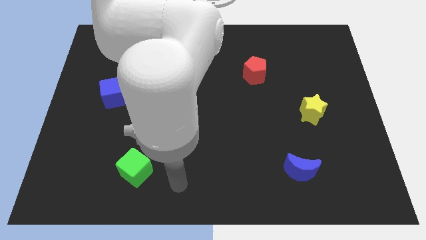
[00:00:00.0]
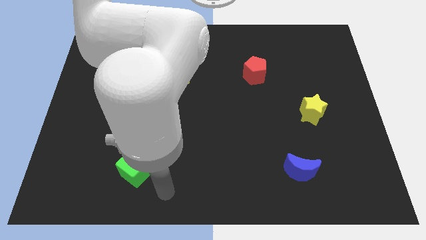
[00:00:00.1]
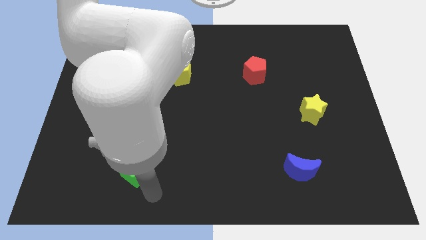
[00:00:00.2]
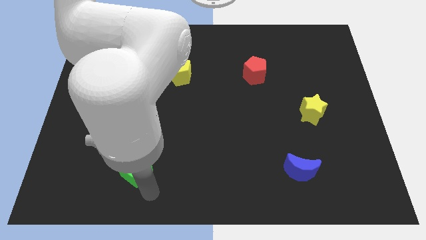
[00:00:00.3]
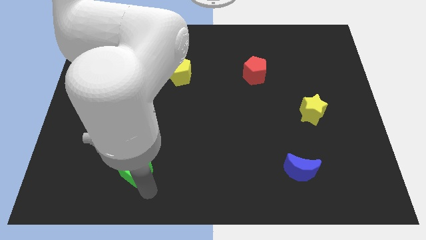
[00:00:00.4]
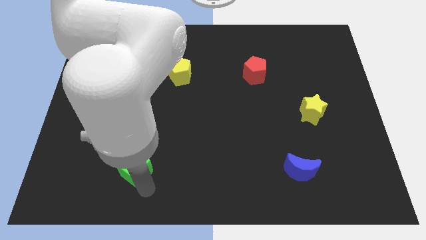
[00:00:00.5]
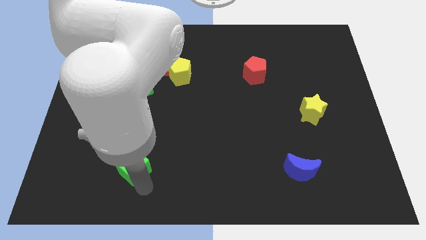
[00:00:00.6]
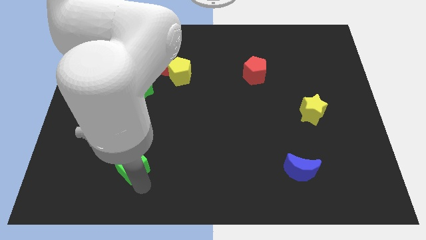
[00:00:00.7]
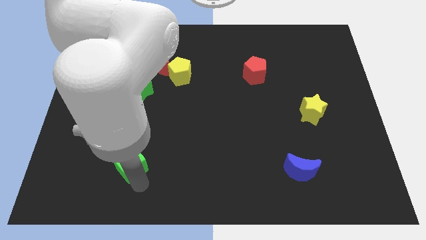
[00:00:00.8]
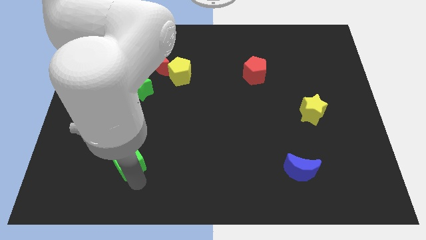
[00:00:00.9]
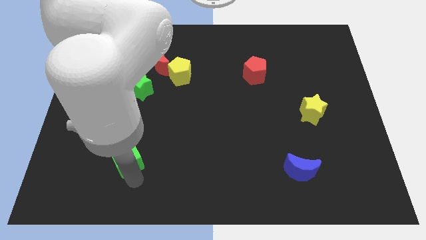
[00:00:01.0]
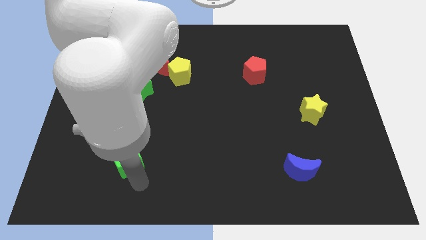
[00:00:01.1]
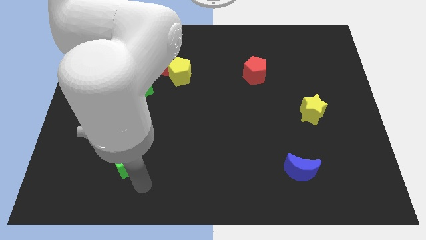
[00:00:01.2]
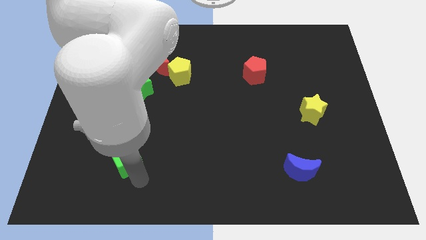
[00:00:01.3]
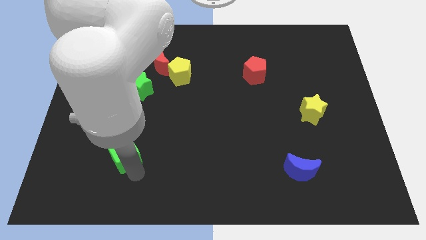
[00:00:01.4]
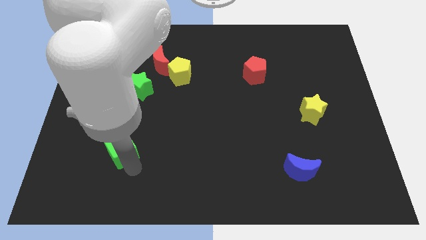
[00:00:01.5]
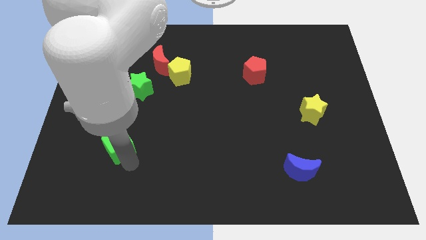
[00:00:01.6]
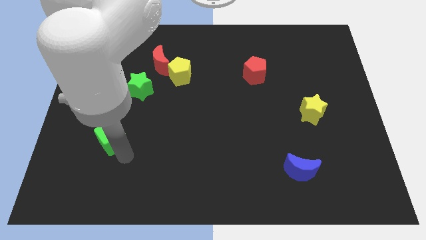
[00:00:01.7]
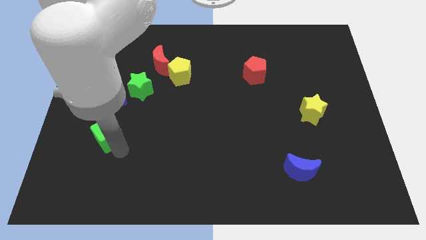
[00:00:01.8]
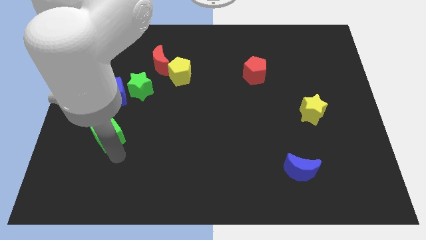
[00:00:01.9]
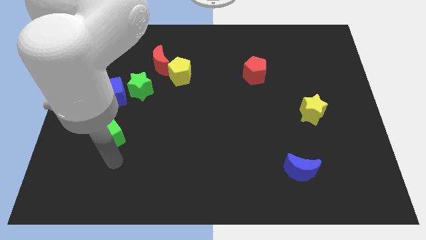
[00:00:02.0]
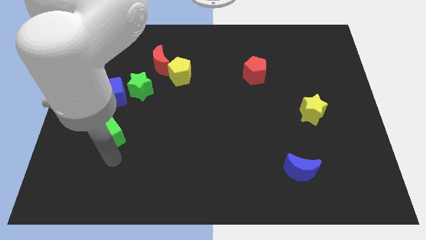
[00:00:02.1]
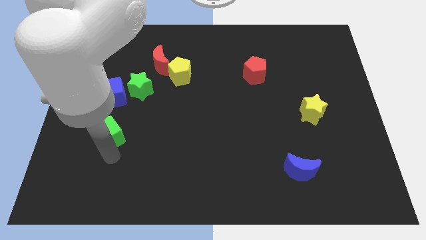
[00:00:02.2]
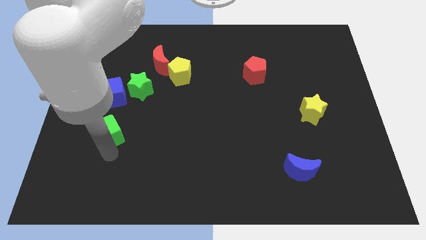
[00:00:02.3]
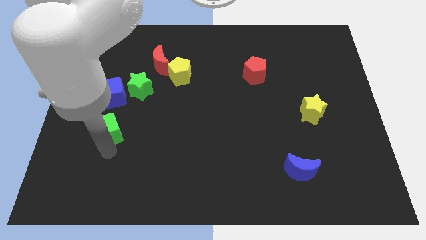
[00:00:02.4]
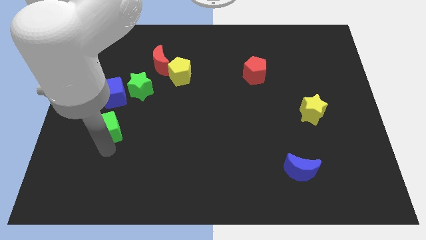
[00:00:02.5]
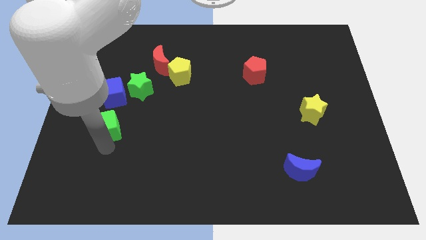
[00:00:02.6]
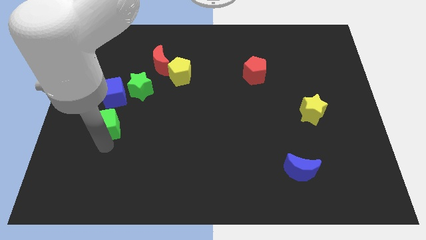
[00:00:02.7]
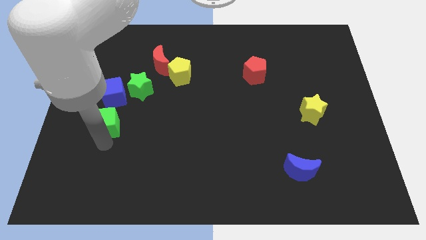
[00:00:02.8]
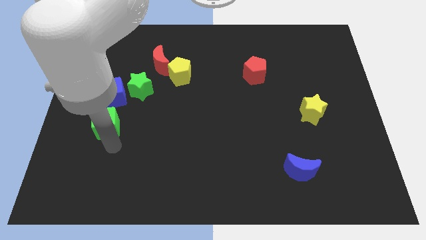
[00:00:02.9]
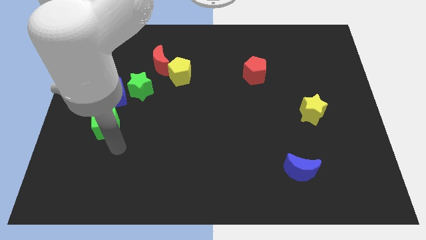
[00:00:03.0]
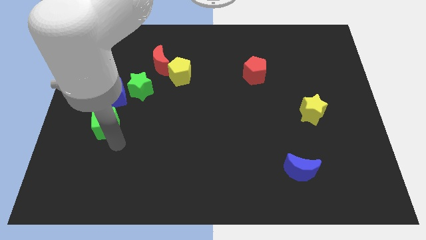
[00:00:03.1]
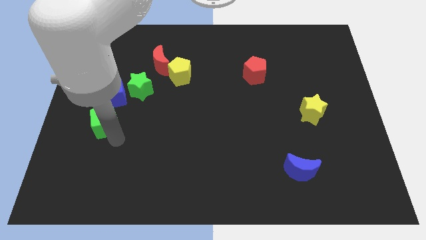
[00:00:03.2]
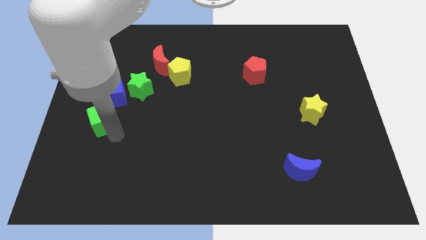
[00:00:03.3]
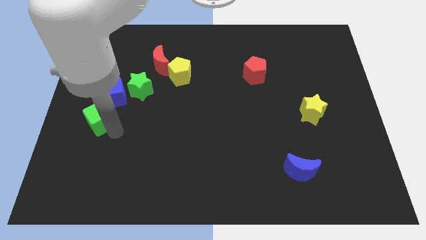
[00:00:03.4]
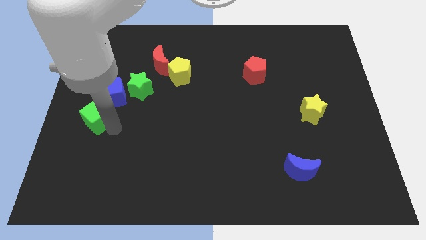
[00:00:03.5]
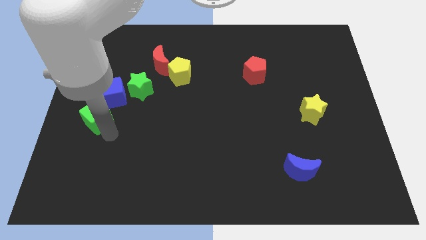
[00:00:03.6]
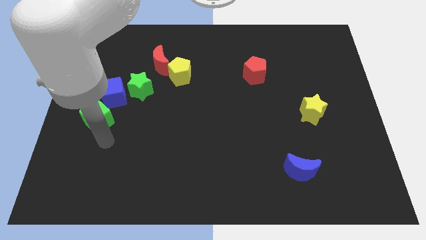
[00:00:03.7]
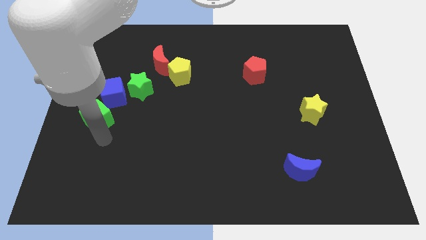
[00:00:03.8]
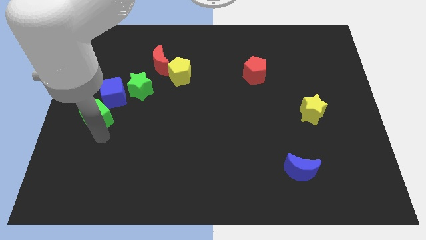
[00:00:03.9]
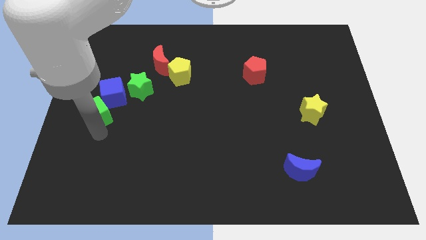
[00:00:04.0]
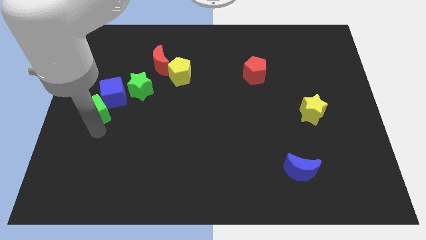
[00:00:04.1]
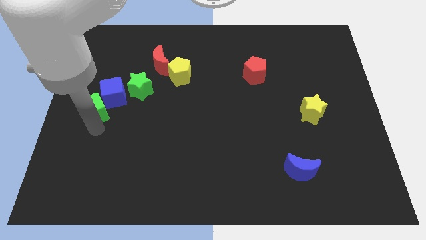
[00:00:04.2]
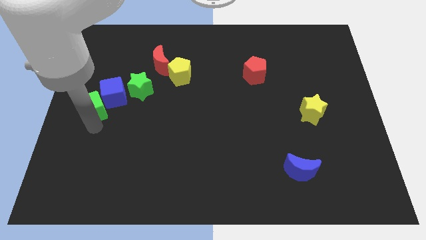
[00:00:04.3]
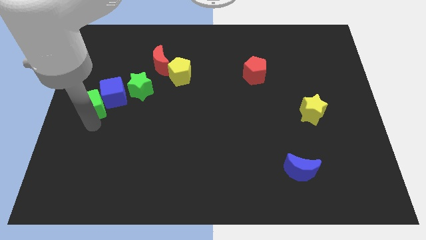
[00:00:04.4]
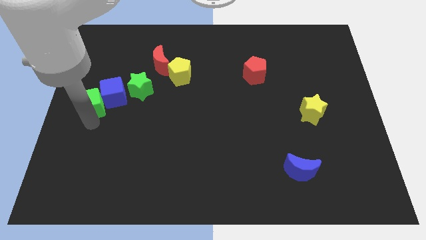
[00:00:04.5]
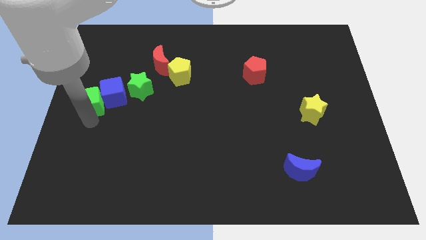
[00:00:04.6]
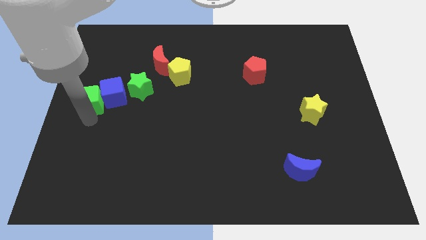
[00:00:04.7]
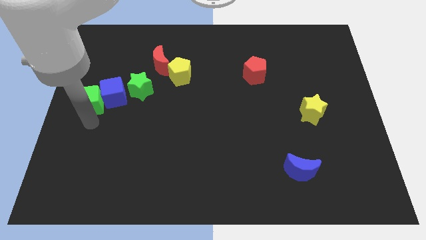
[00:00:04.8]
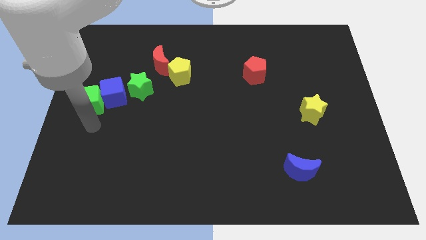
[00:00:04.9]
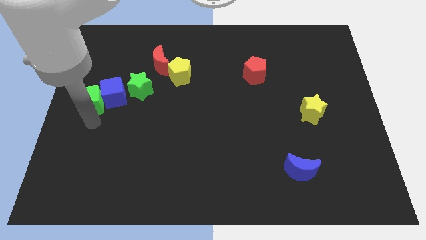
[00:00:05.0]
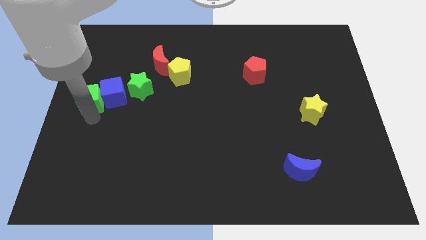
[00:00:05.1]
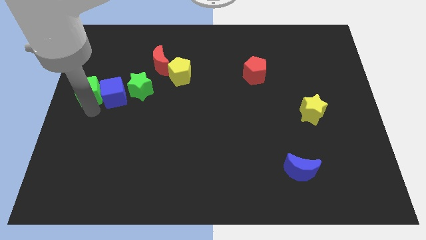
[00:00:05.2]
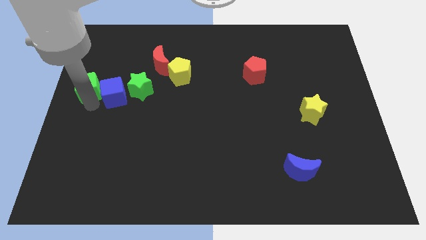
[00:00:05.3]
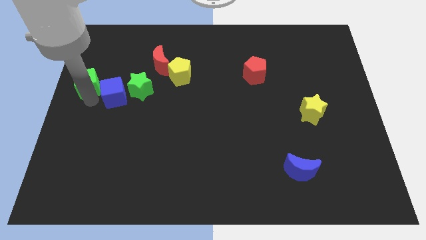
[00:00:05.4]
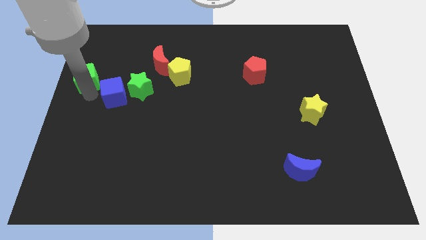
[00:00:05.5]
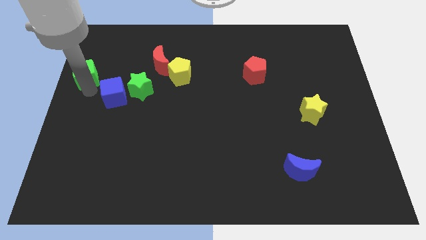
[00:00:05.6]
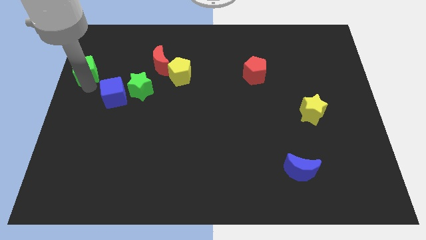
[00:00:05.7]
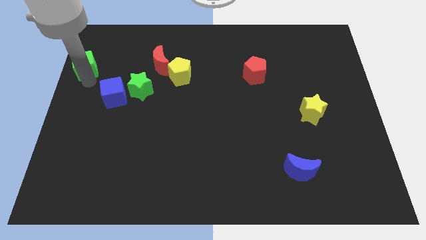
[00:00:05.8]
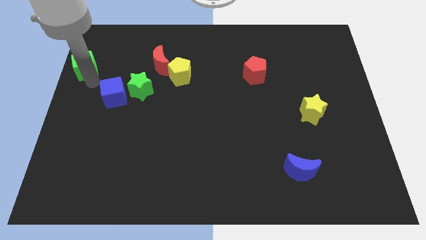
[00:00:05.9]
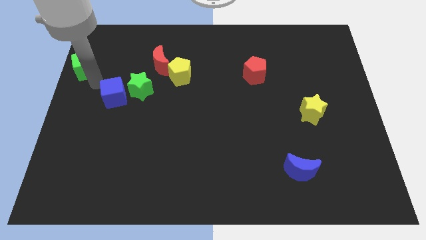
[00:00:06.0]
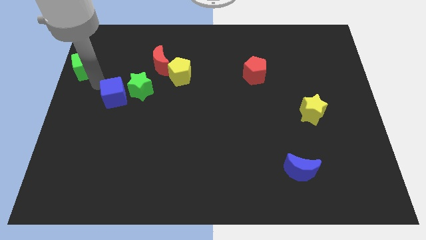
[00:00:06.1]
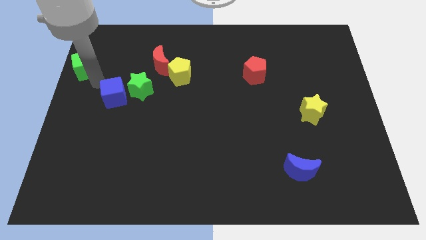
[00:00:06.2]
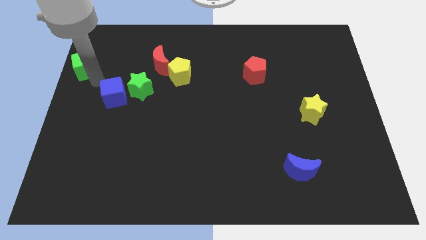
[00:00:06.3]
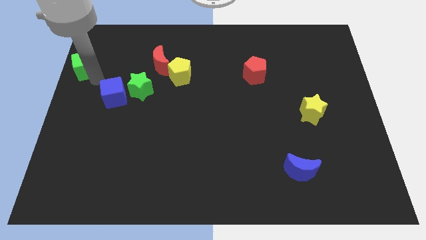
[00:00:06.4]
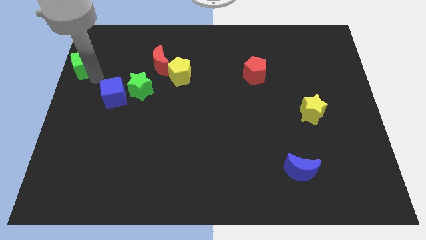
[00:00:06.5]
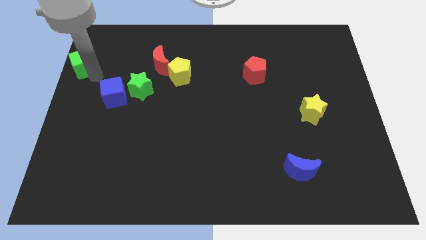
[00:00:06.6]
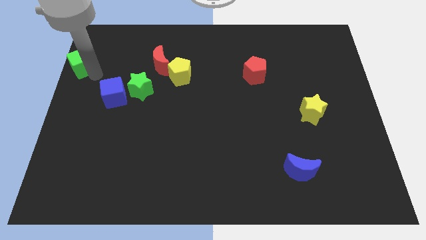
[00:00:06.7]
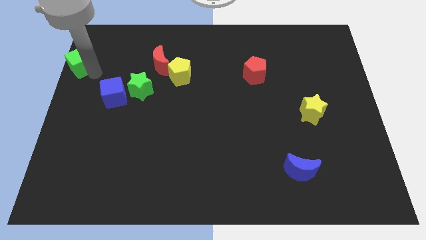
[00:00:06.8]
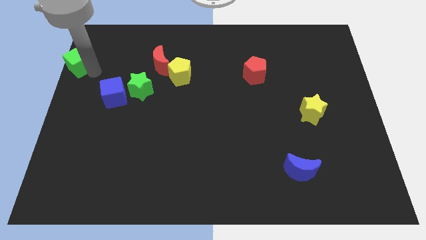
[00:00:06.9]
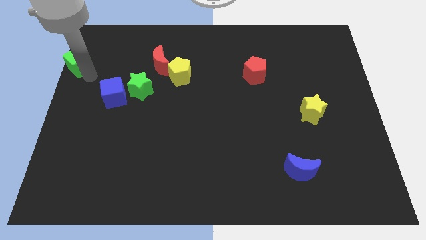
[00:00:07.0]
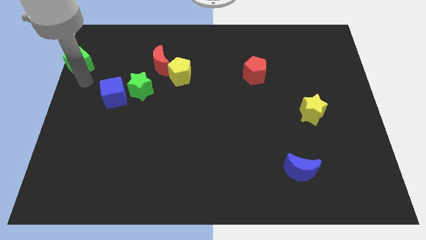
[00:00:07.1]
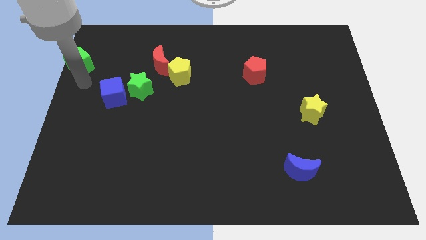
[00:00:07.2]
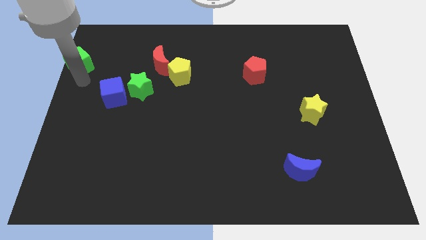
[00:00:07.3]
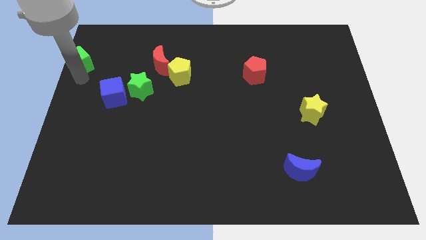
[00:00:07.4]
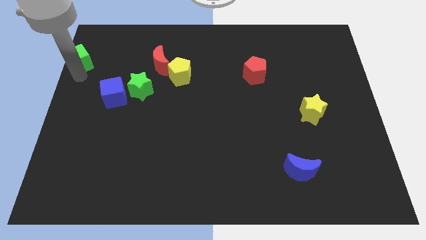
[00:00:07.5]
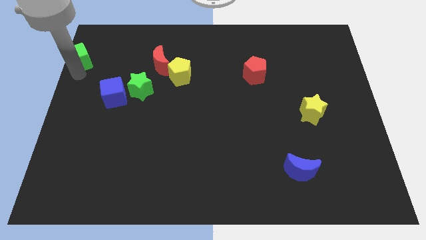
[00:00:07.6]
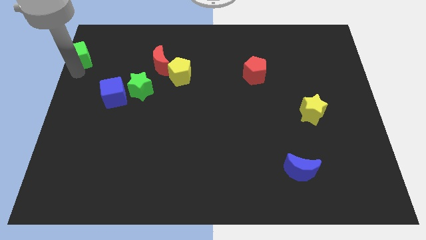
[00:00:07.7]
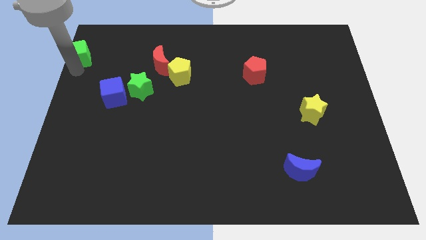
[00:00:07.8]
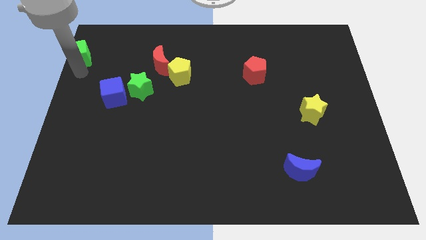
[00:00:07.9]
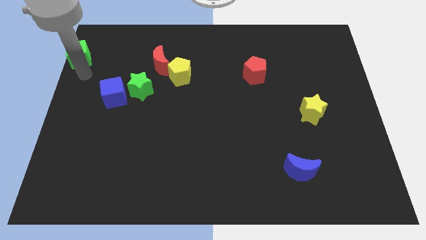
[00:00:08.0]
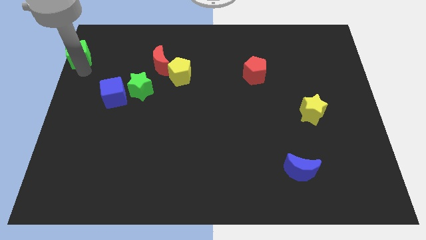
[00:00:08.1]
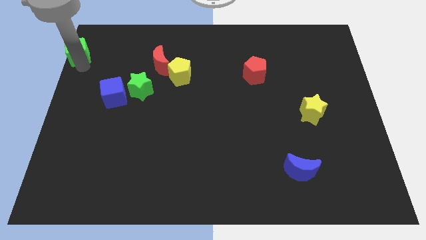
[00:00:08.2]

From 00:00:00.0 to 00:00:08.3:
move the green cube to the top left of the board
